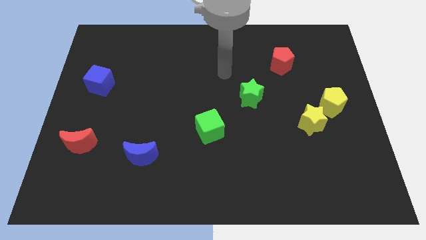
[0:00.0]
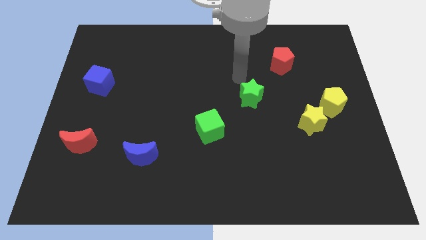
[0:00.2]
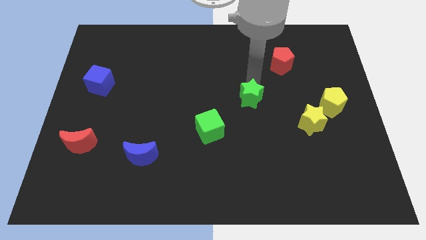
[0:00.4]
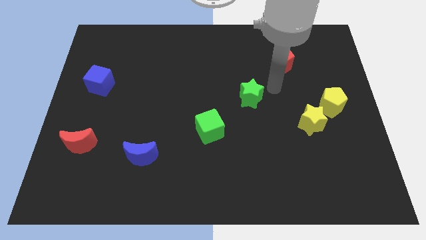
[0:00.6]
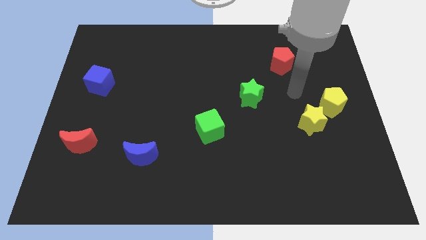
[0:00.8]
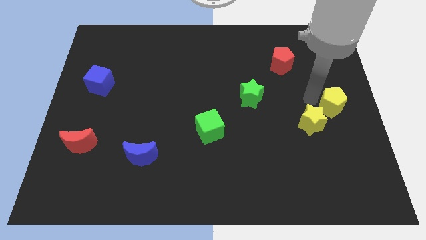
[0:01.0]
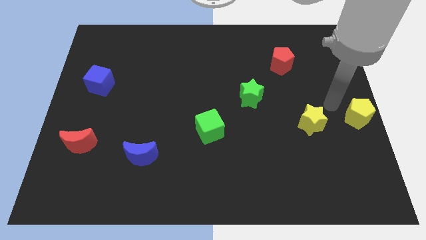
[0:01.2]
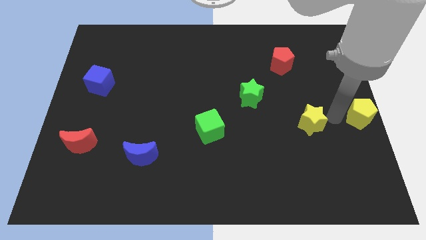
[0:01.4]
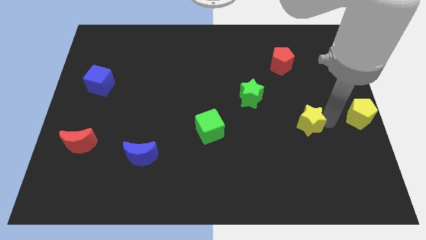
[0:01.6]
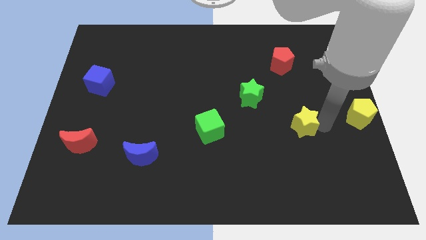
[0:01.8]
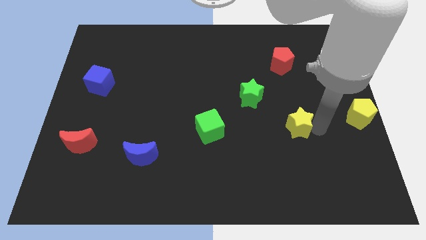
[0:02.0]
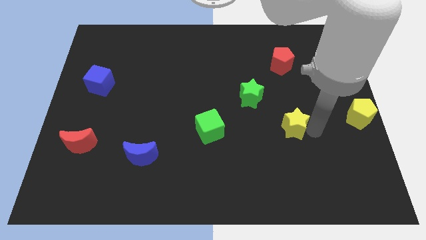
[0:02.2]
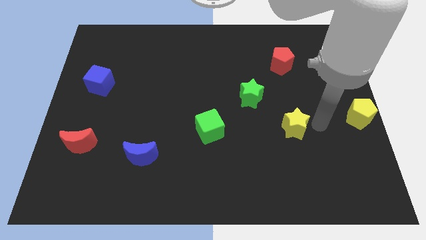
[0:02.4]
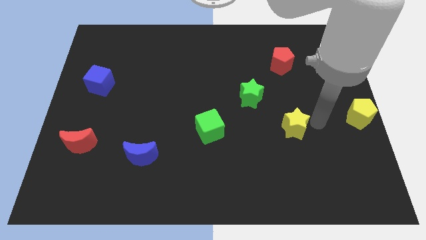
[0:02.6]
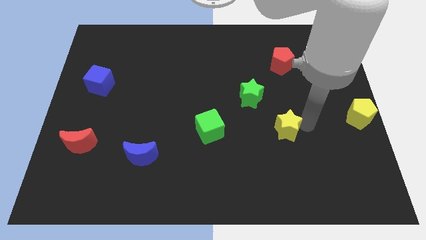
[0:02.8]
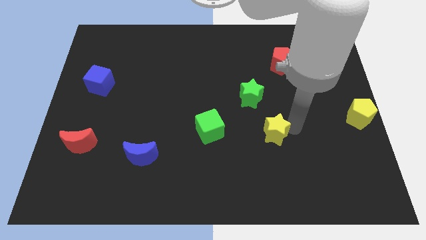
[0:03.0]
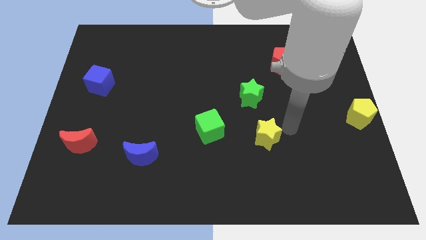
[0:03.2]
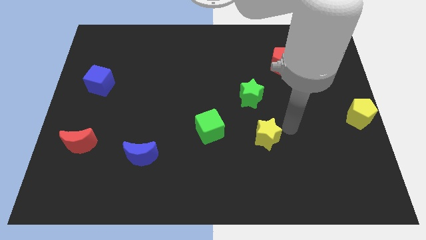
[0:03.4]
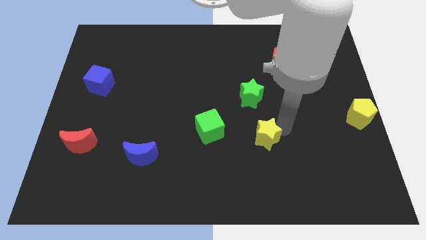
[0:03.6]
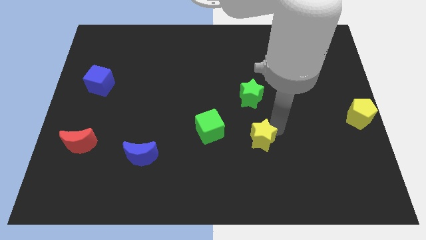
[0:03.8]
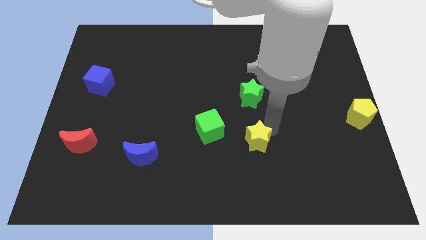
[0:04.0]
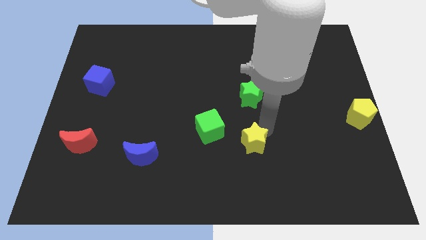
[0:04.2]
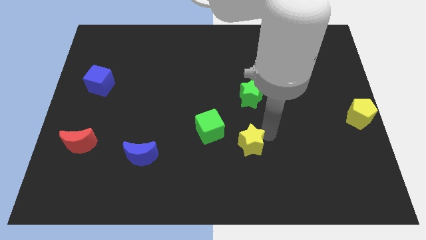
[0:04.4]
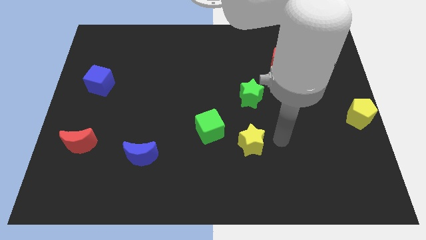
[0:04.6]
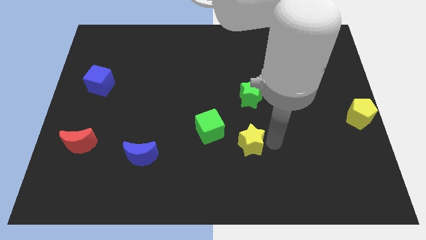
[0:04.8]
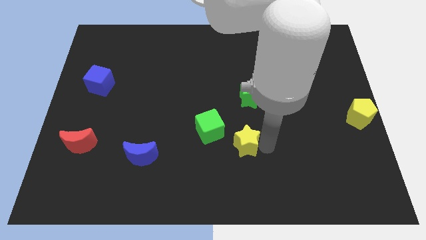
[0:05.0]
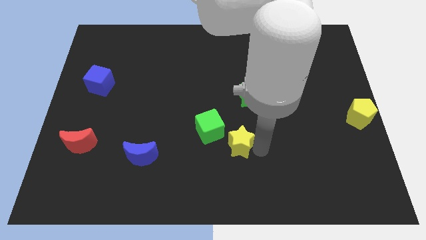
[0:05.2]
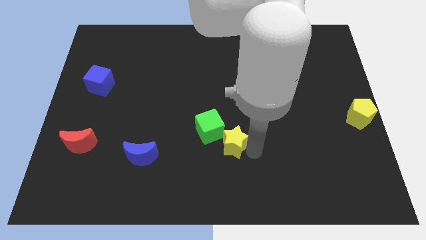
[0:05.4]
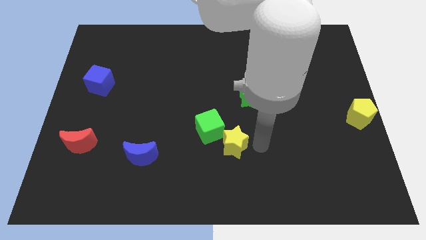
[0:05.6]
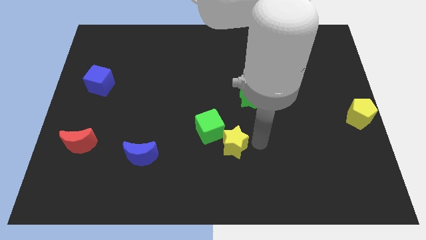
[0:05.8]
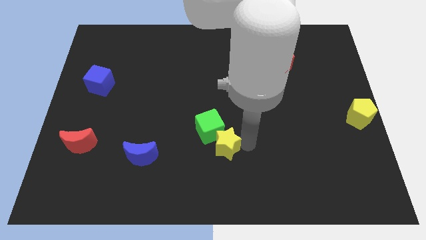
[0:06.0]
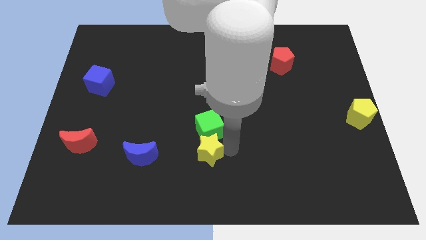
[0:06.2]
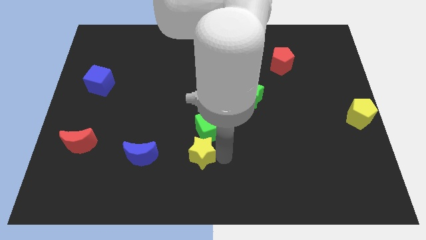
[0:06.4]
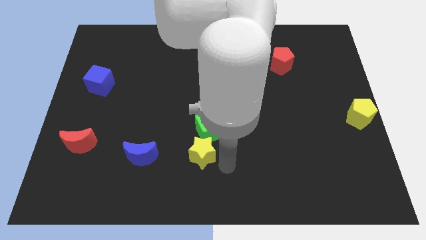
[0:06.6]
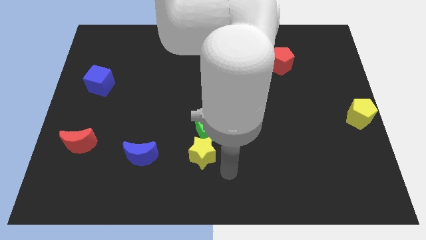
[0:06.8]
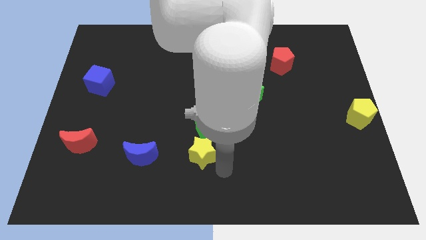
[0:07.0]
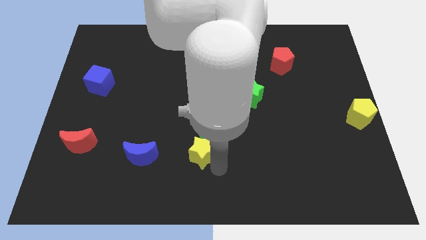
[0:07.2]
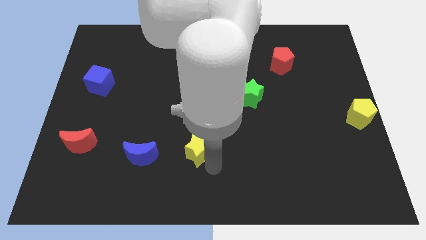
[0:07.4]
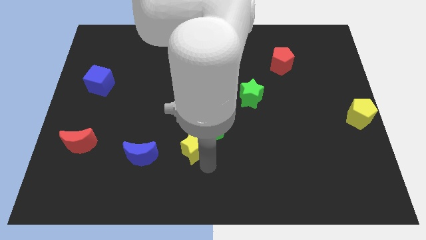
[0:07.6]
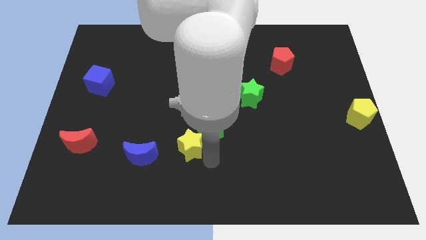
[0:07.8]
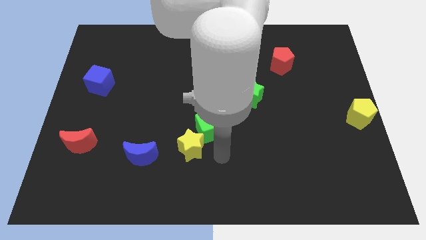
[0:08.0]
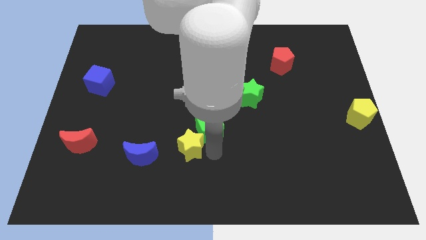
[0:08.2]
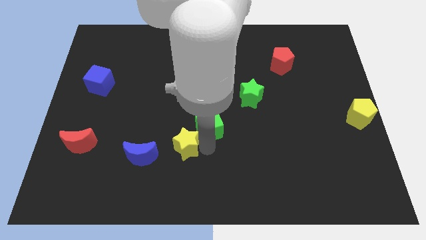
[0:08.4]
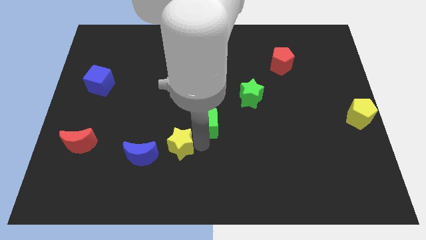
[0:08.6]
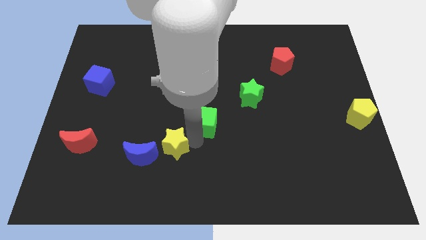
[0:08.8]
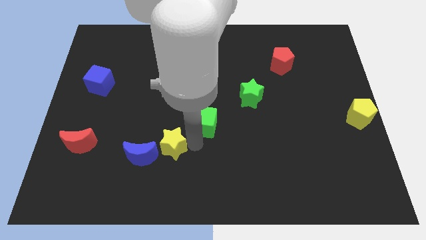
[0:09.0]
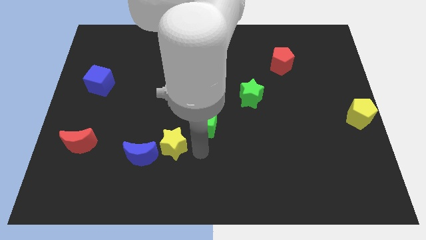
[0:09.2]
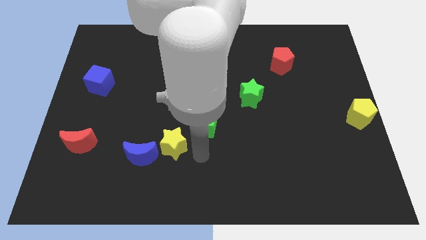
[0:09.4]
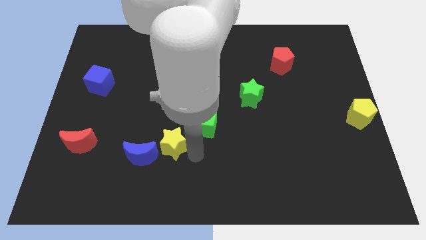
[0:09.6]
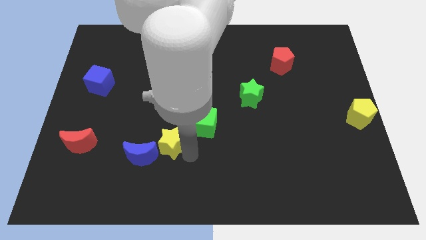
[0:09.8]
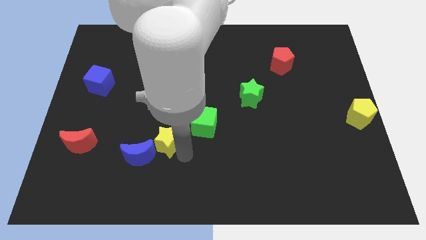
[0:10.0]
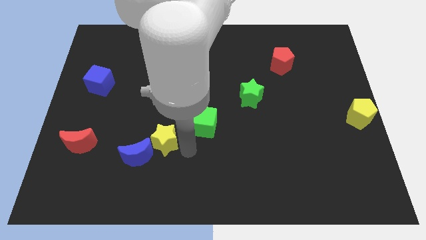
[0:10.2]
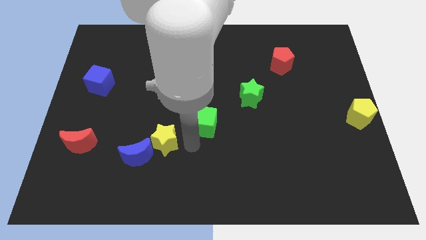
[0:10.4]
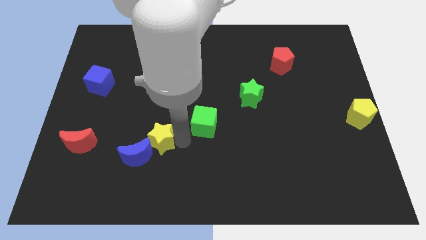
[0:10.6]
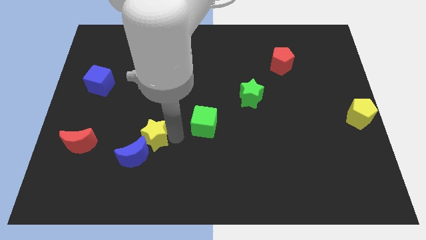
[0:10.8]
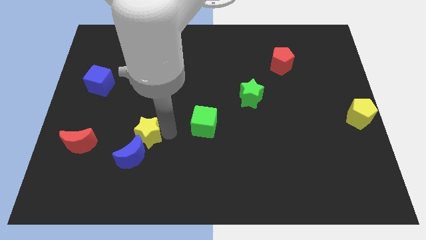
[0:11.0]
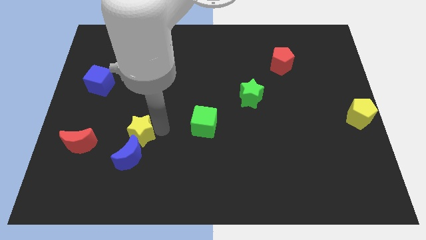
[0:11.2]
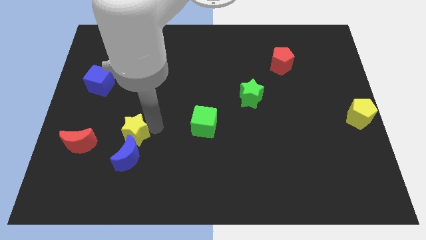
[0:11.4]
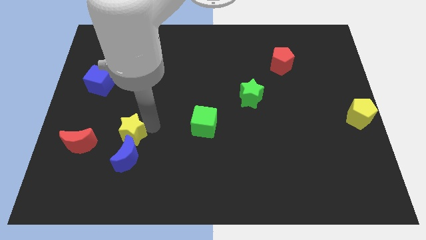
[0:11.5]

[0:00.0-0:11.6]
slide the yellow star to the top left of the blue moon
